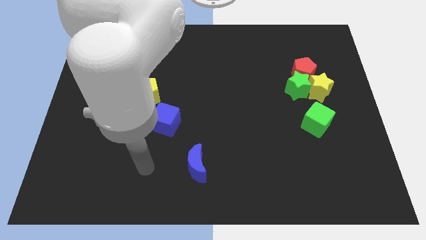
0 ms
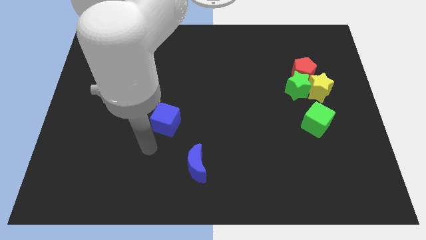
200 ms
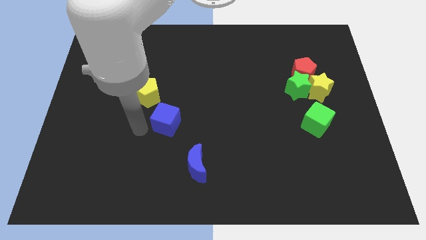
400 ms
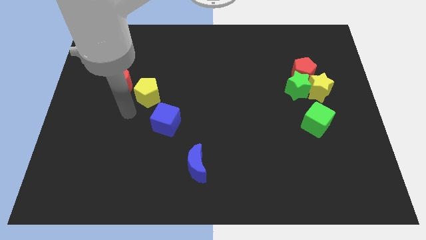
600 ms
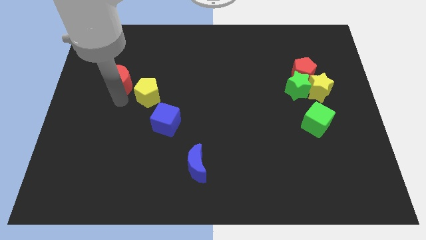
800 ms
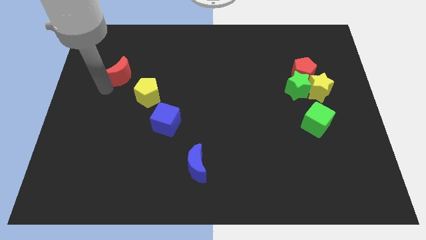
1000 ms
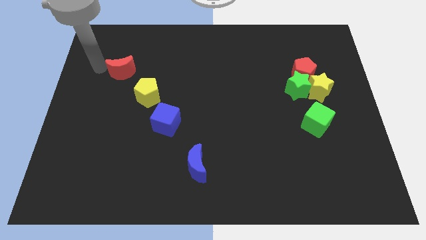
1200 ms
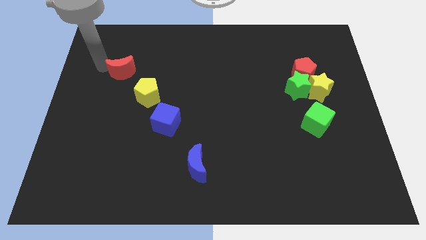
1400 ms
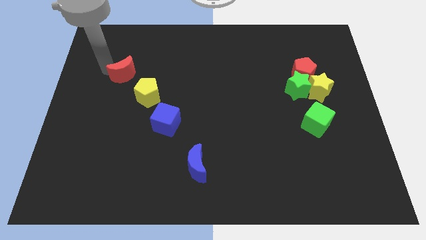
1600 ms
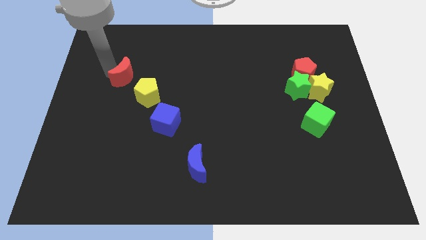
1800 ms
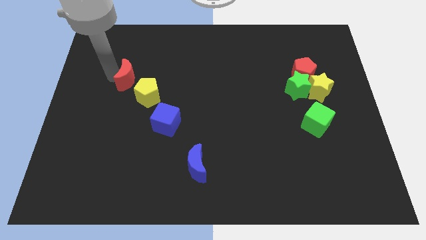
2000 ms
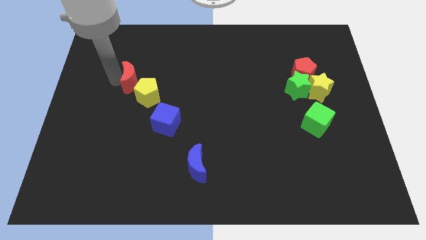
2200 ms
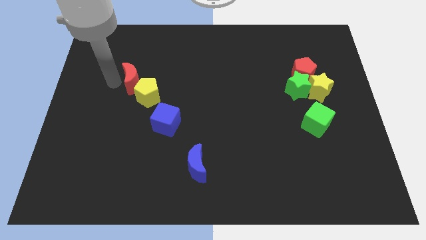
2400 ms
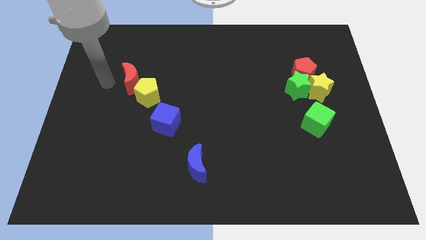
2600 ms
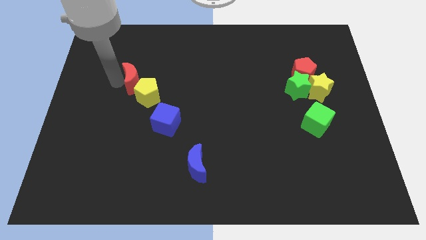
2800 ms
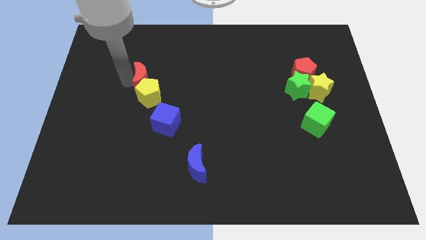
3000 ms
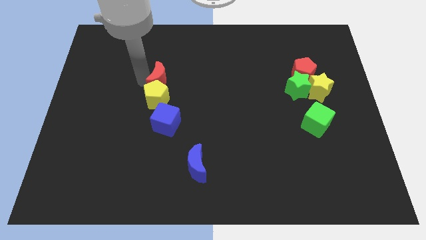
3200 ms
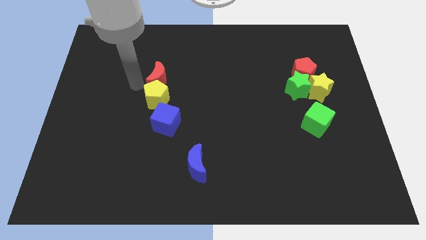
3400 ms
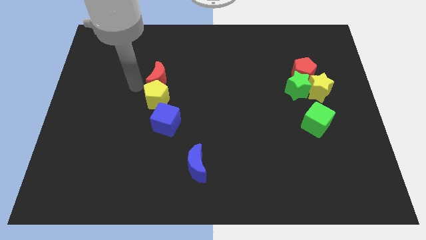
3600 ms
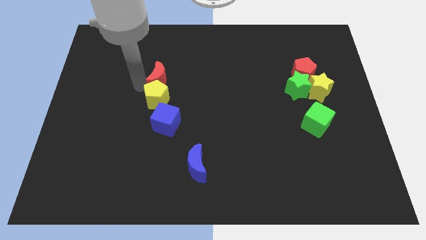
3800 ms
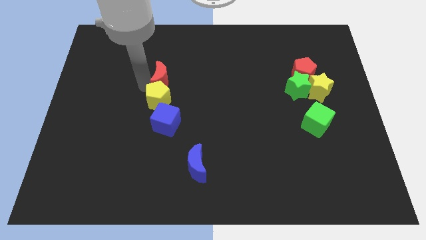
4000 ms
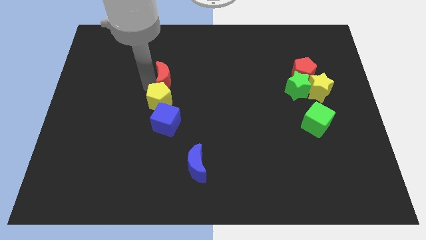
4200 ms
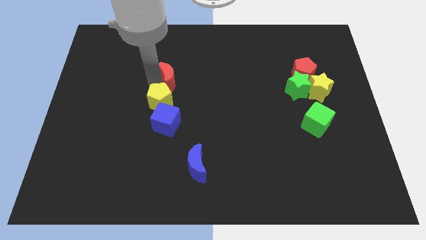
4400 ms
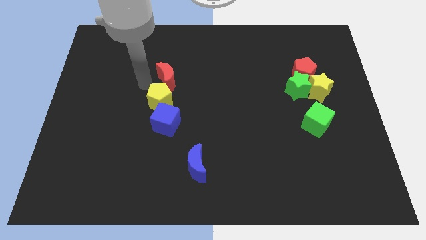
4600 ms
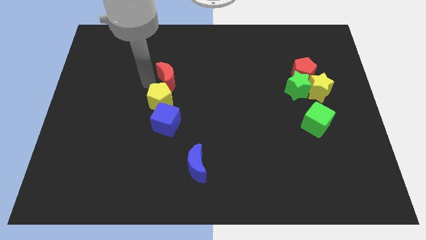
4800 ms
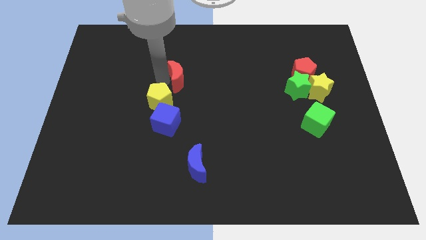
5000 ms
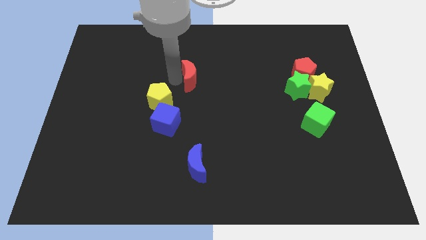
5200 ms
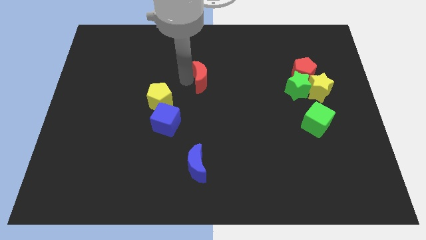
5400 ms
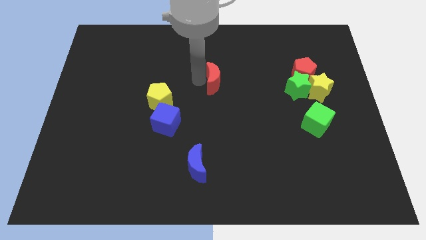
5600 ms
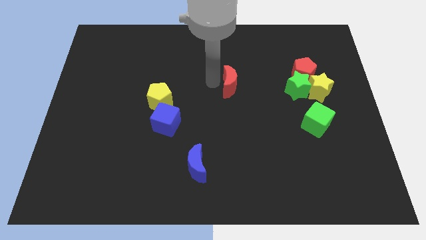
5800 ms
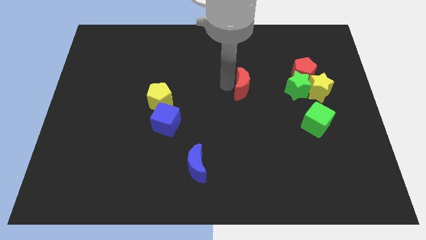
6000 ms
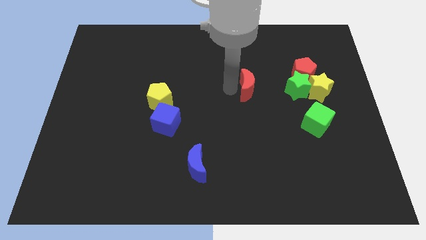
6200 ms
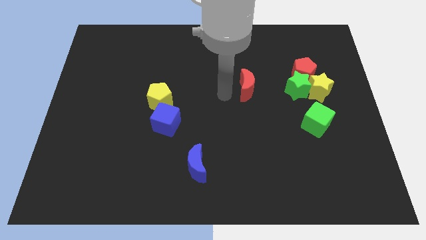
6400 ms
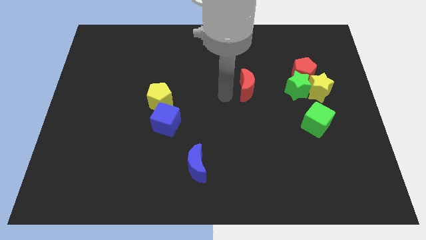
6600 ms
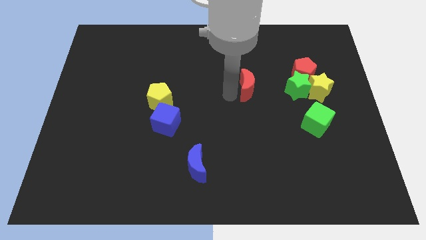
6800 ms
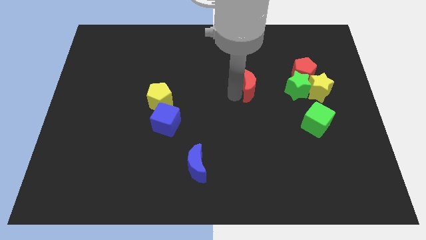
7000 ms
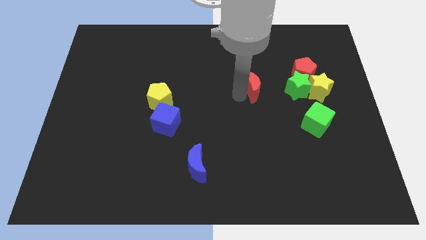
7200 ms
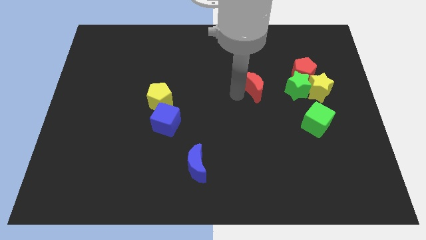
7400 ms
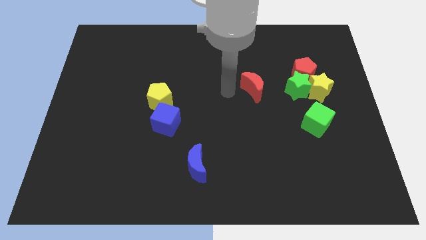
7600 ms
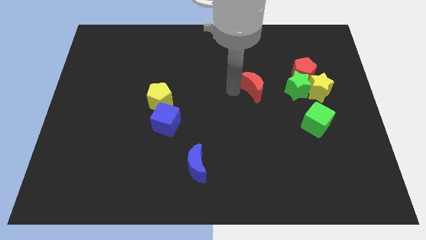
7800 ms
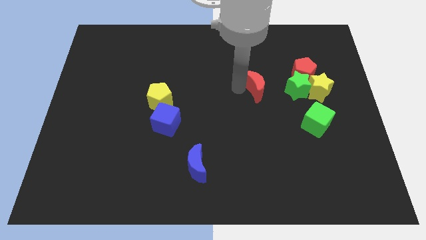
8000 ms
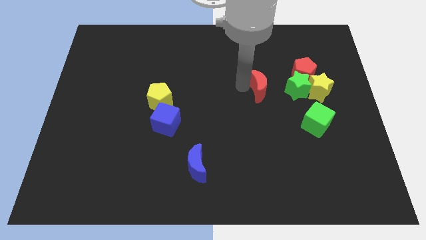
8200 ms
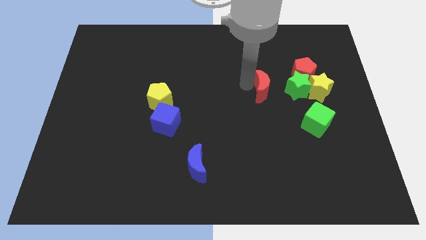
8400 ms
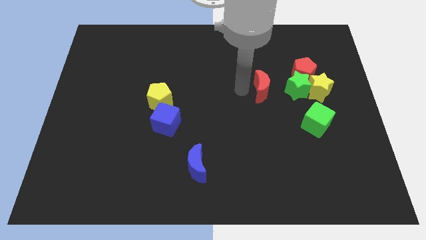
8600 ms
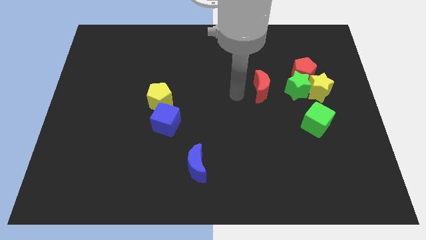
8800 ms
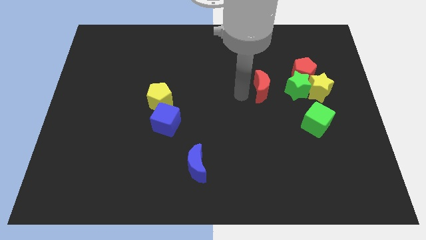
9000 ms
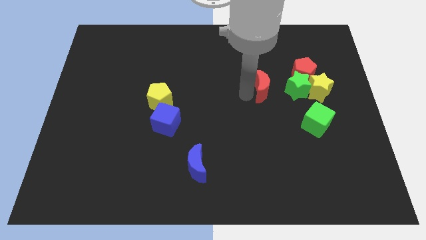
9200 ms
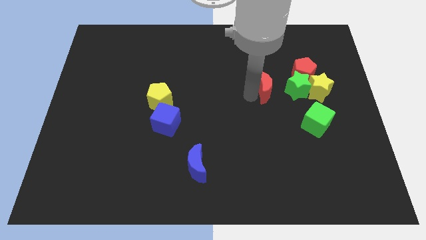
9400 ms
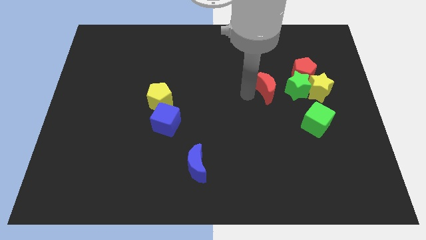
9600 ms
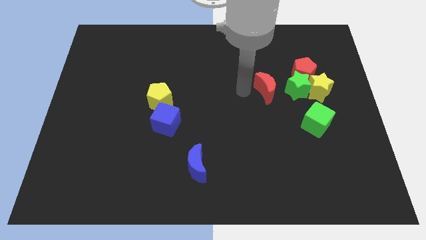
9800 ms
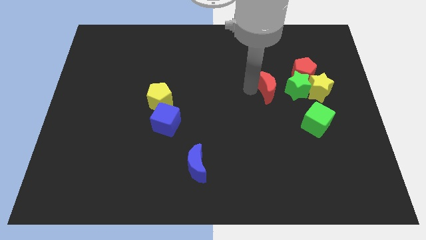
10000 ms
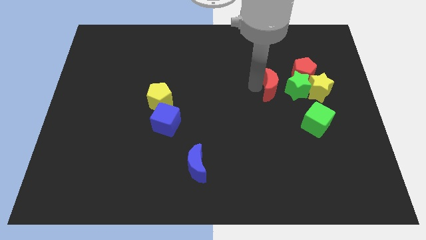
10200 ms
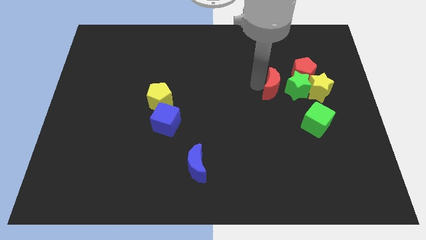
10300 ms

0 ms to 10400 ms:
slide the red moon to the green star

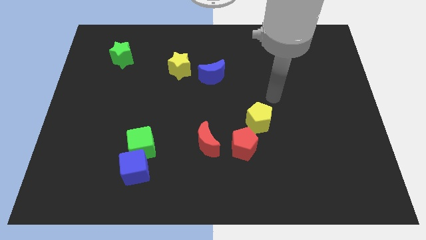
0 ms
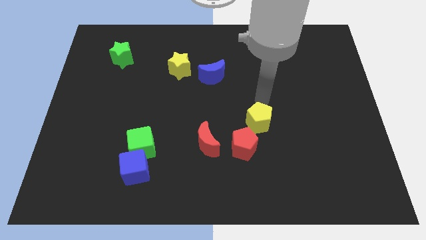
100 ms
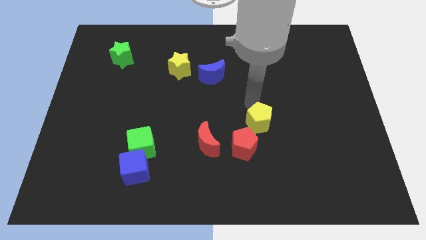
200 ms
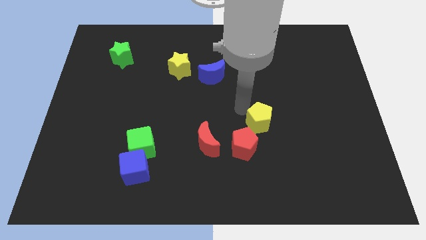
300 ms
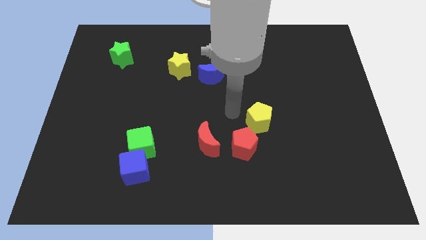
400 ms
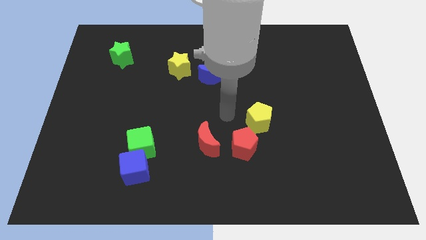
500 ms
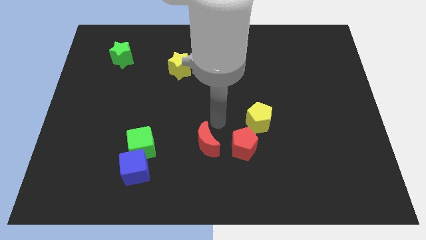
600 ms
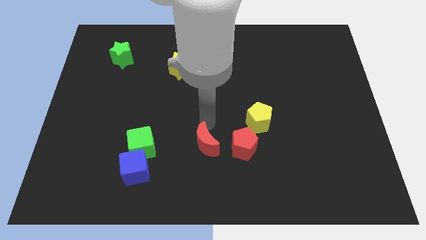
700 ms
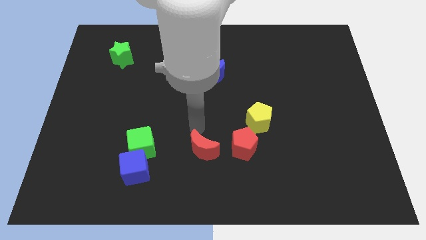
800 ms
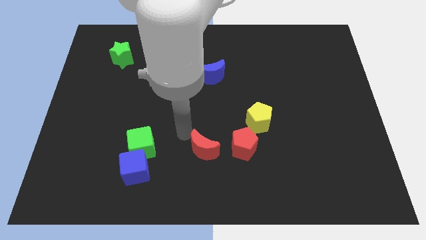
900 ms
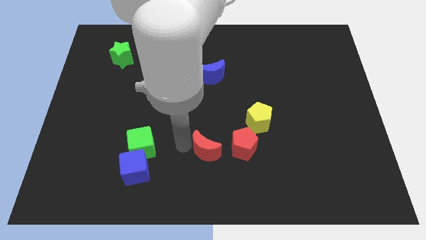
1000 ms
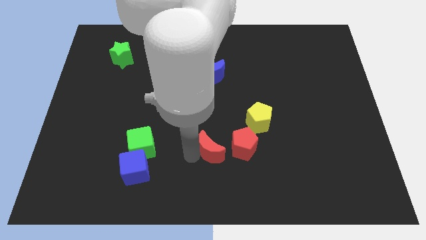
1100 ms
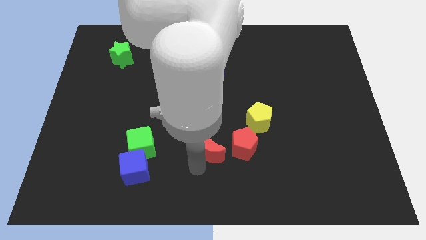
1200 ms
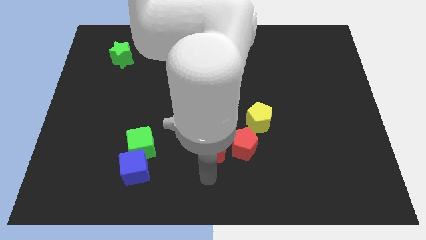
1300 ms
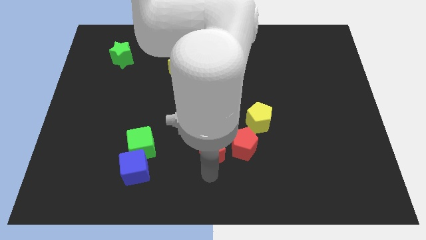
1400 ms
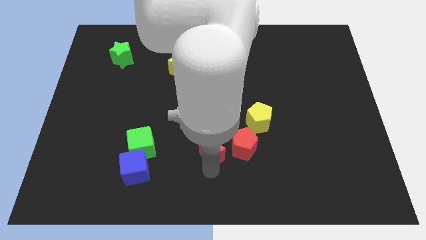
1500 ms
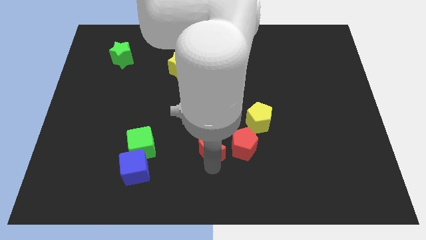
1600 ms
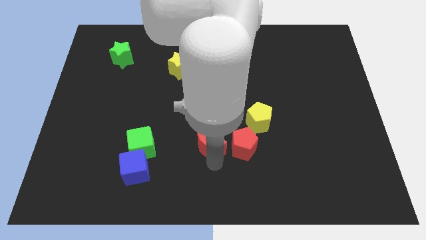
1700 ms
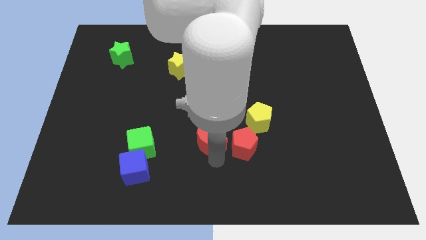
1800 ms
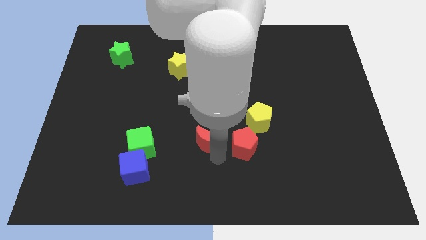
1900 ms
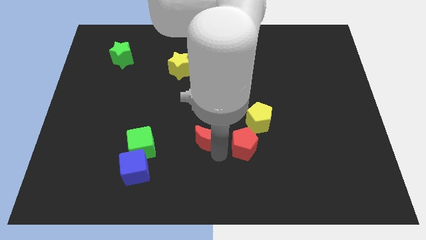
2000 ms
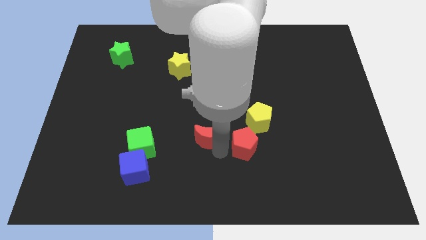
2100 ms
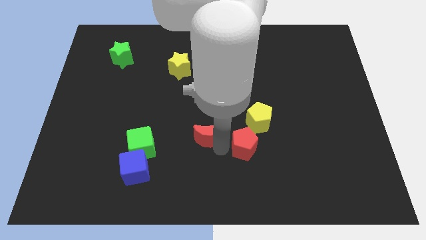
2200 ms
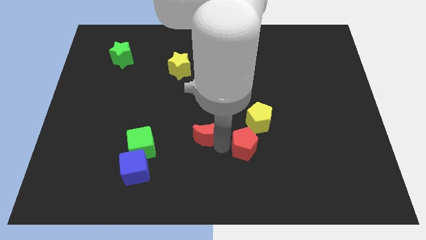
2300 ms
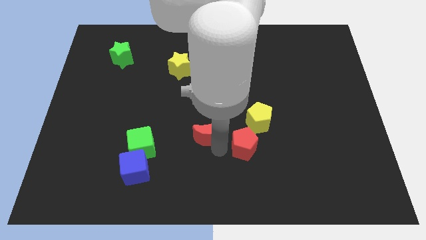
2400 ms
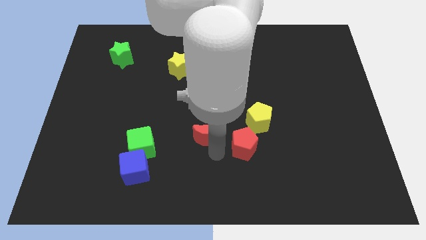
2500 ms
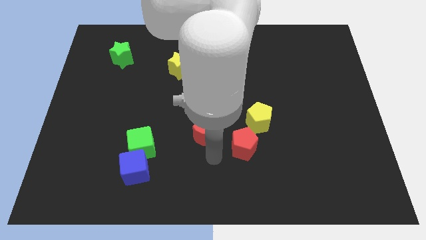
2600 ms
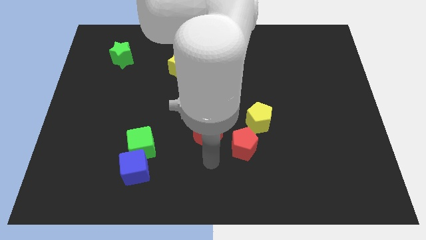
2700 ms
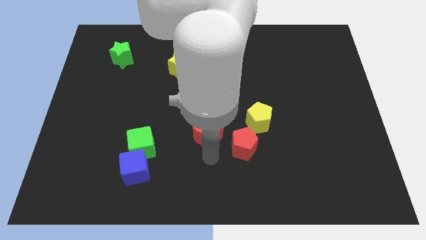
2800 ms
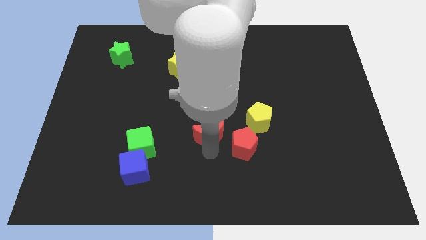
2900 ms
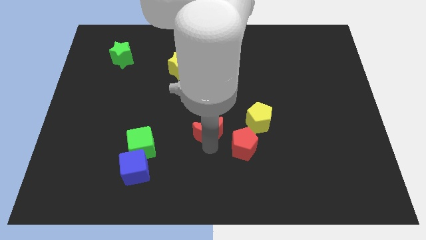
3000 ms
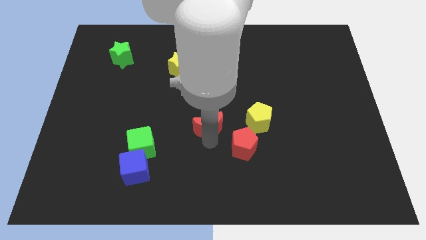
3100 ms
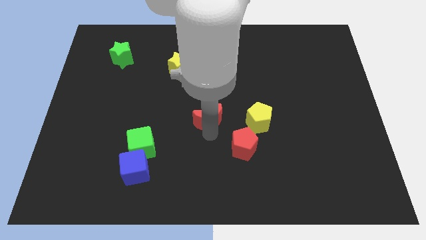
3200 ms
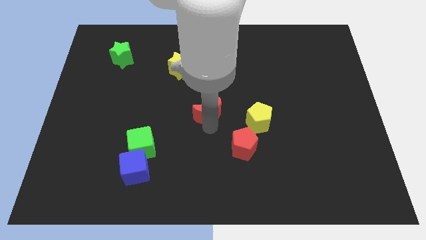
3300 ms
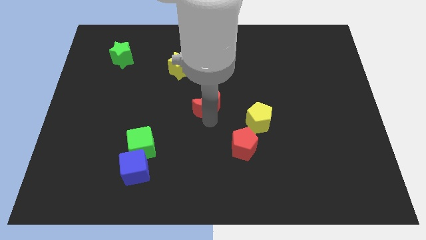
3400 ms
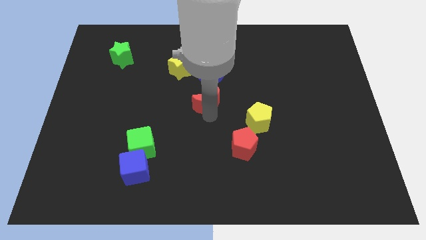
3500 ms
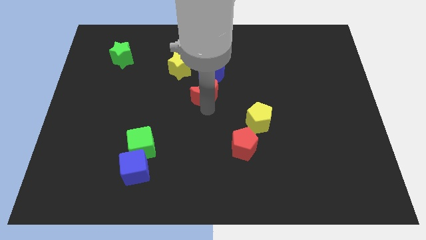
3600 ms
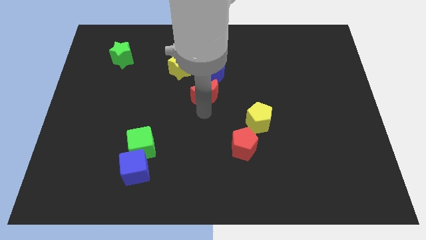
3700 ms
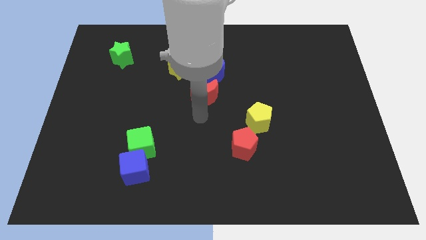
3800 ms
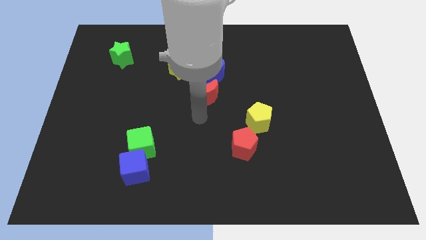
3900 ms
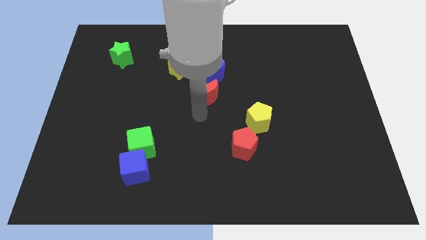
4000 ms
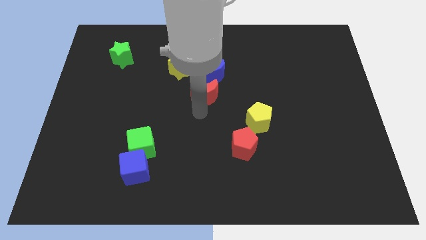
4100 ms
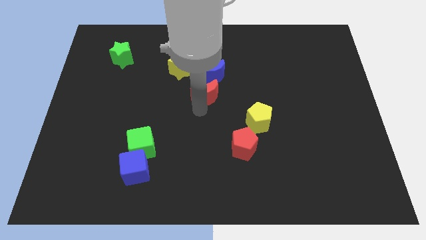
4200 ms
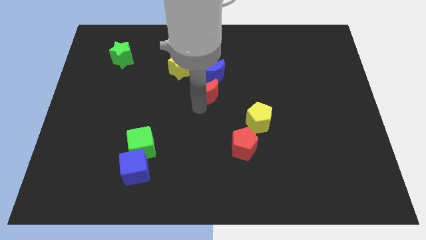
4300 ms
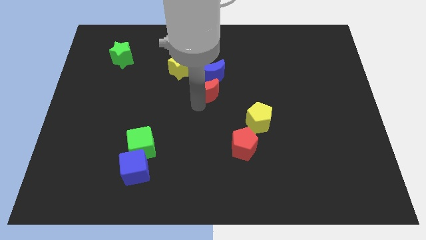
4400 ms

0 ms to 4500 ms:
push the red moon close to the blue moon
